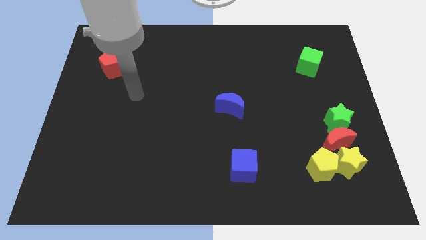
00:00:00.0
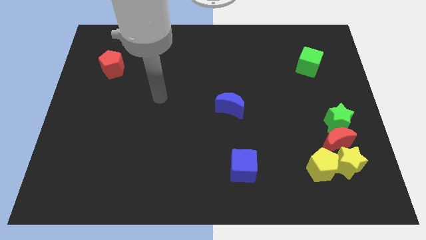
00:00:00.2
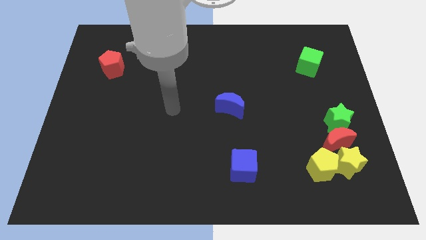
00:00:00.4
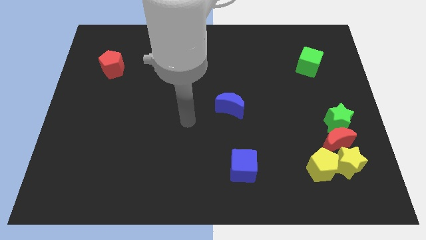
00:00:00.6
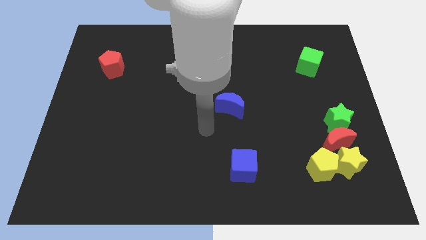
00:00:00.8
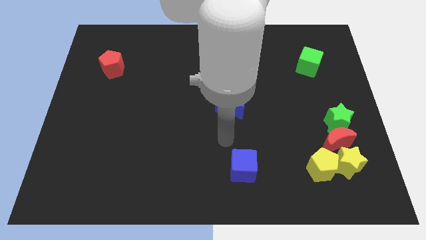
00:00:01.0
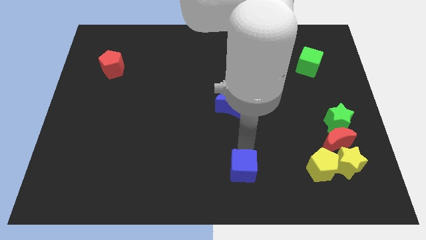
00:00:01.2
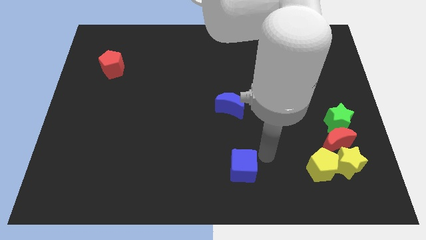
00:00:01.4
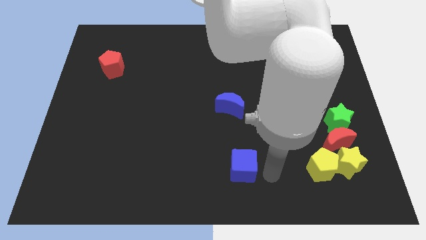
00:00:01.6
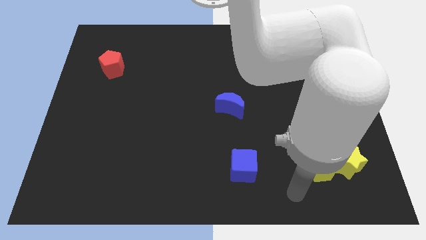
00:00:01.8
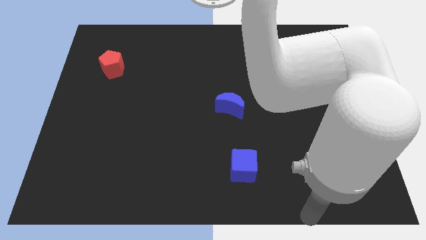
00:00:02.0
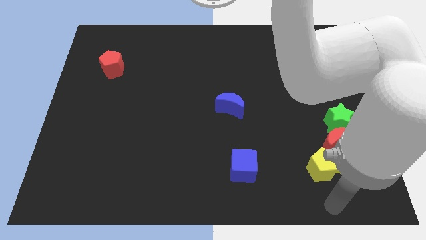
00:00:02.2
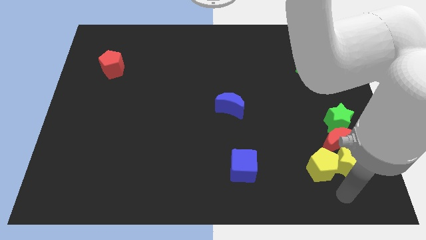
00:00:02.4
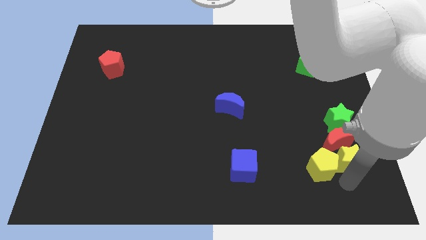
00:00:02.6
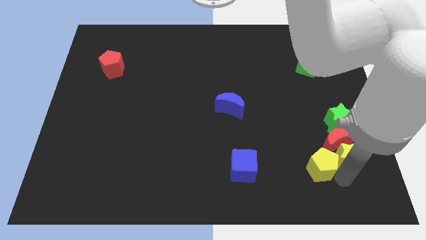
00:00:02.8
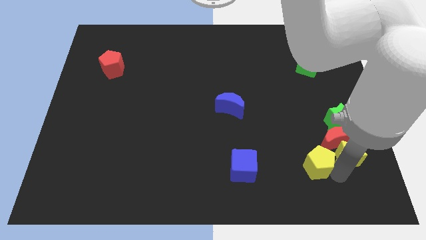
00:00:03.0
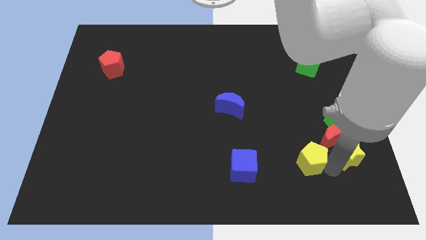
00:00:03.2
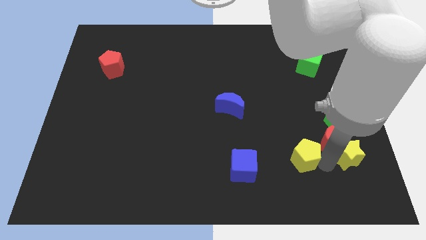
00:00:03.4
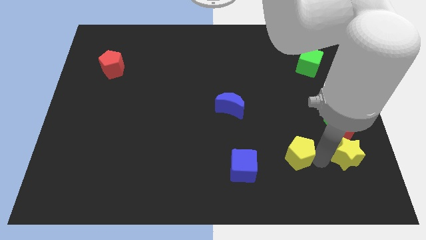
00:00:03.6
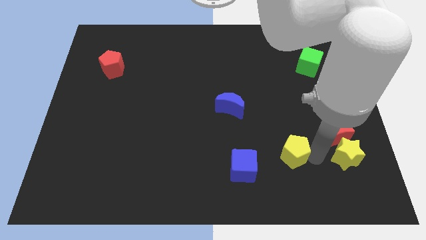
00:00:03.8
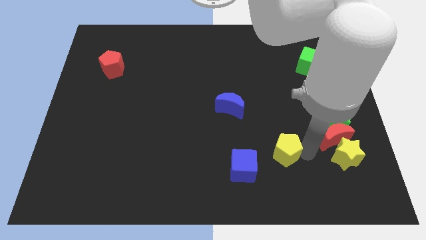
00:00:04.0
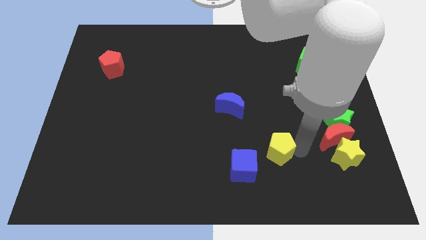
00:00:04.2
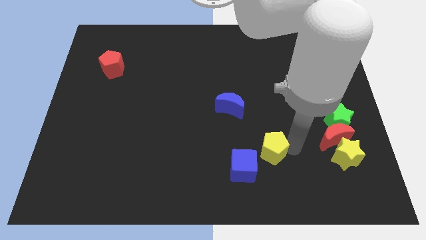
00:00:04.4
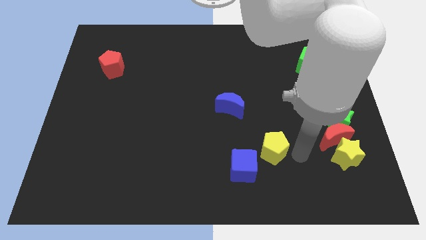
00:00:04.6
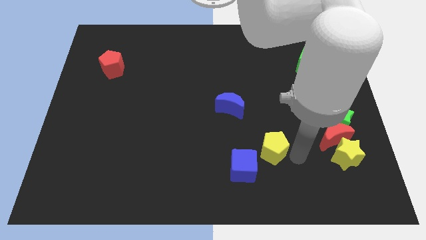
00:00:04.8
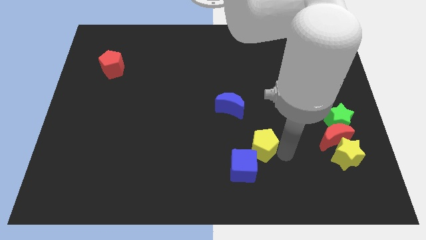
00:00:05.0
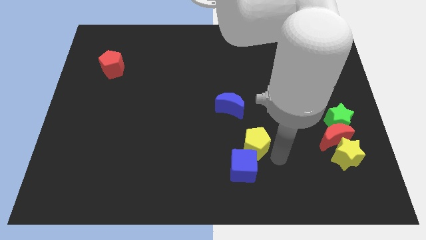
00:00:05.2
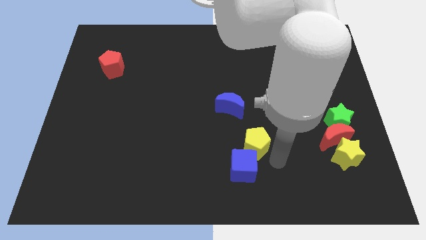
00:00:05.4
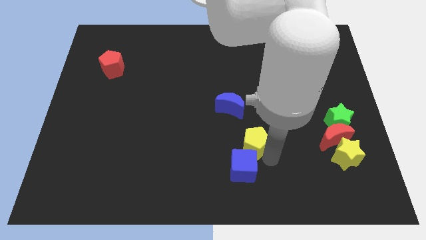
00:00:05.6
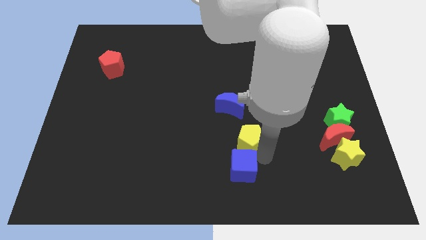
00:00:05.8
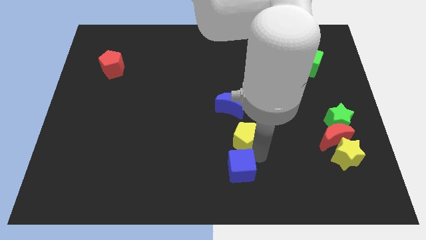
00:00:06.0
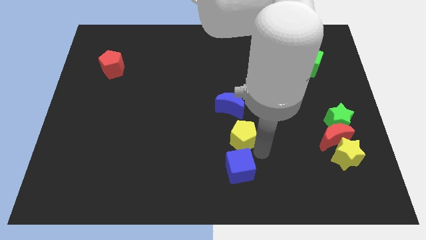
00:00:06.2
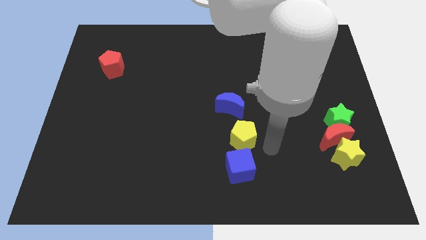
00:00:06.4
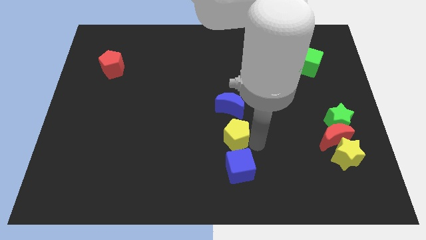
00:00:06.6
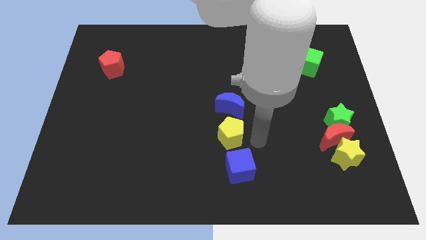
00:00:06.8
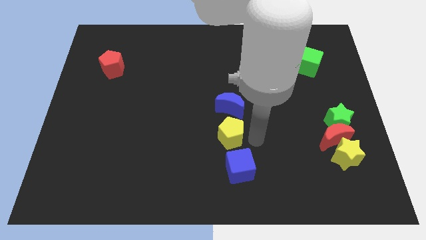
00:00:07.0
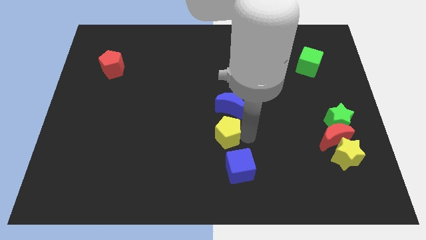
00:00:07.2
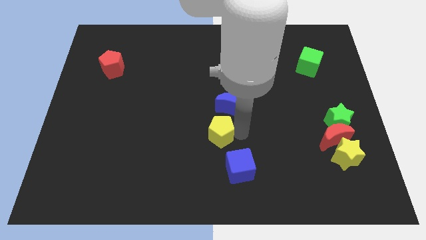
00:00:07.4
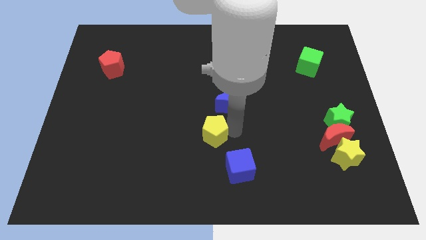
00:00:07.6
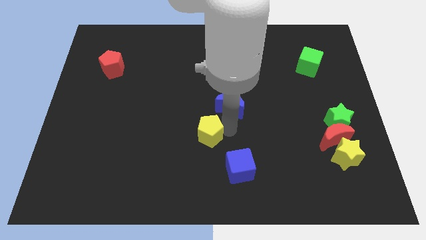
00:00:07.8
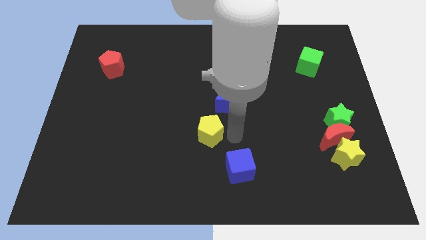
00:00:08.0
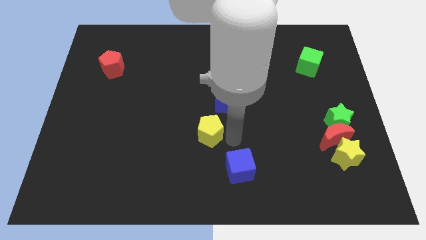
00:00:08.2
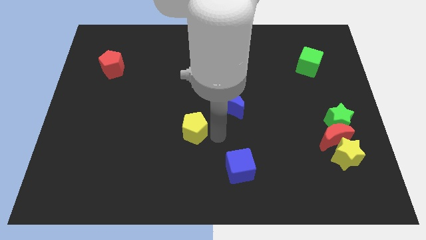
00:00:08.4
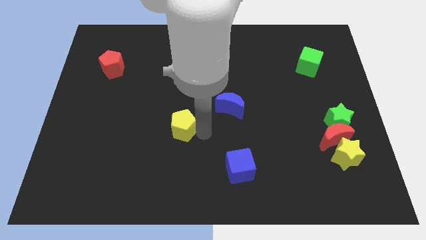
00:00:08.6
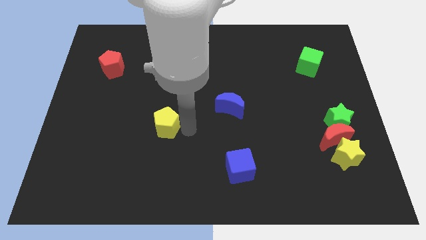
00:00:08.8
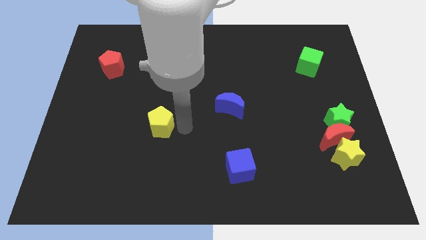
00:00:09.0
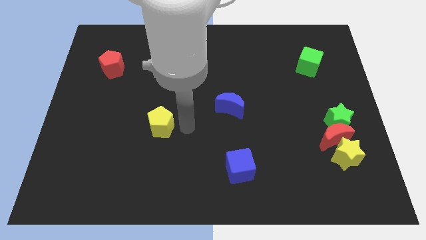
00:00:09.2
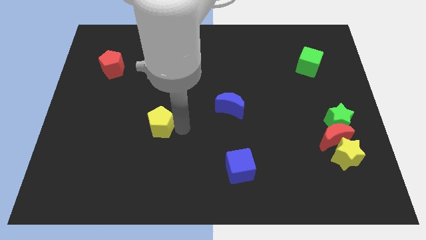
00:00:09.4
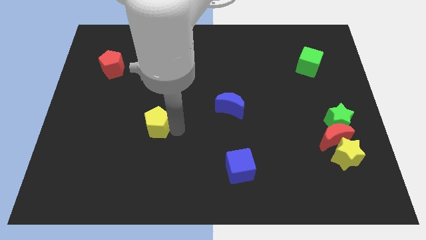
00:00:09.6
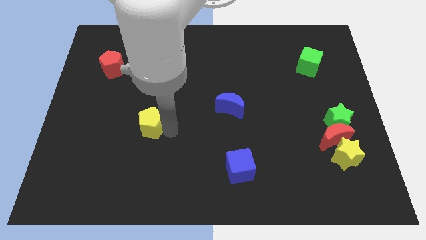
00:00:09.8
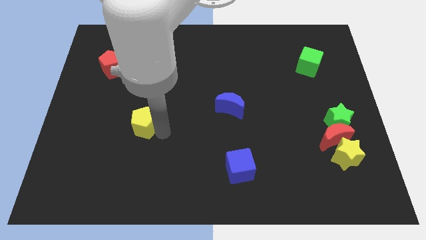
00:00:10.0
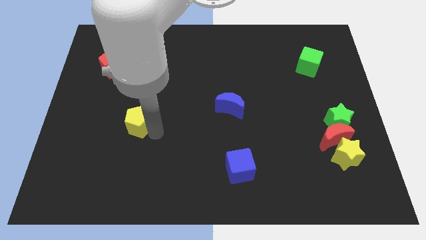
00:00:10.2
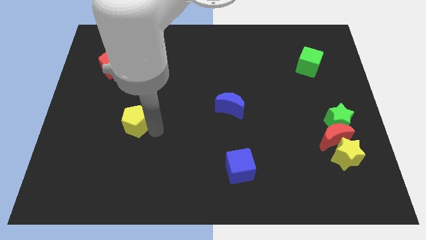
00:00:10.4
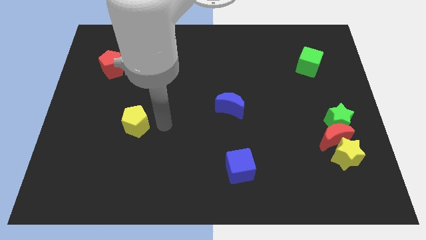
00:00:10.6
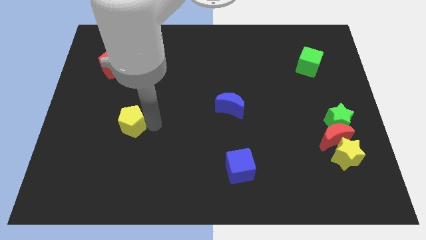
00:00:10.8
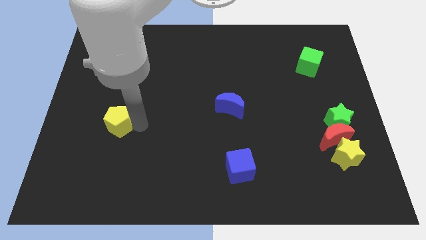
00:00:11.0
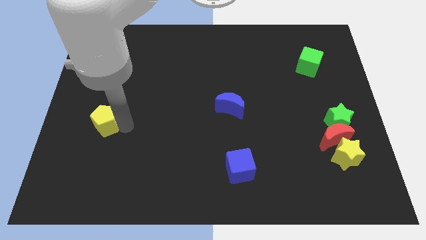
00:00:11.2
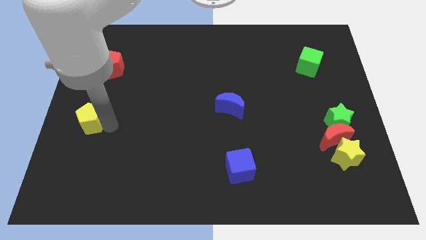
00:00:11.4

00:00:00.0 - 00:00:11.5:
push the yellow pentagon to the left side of the board

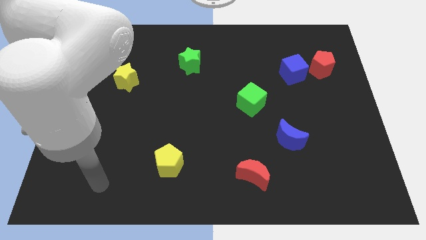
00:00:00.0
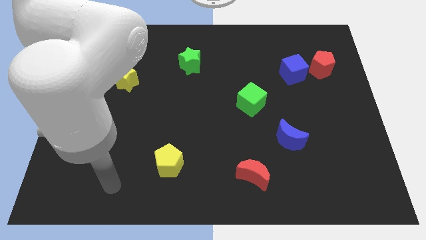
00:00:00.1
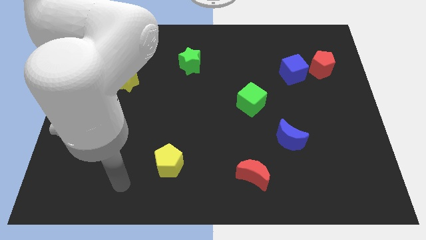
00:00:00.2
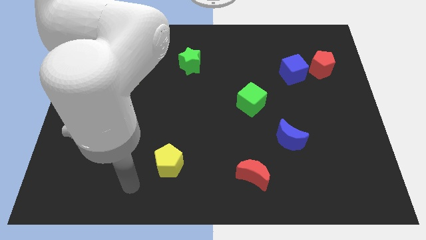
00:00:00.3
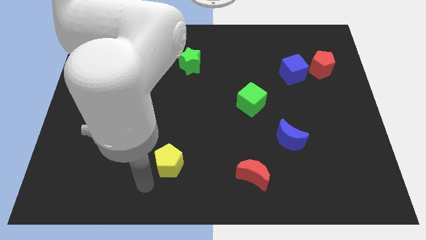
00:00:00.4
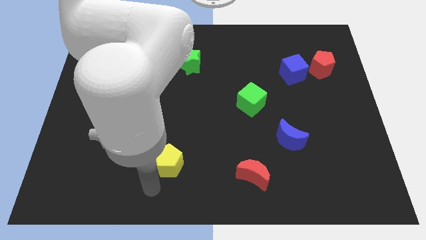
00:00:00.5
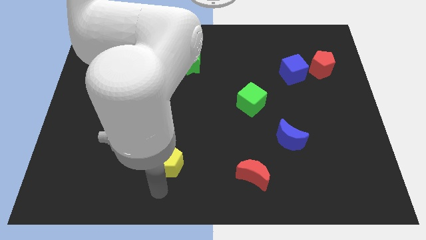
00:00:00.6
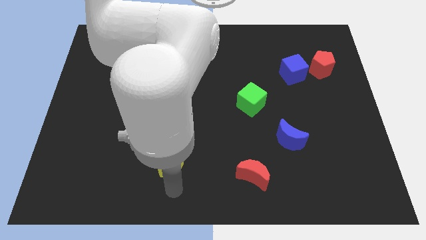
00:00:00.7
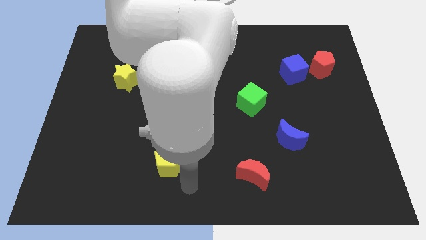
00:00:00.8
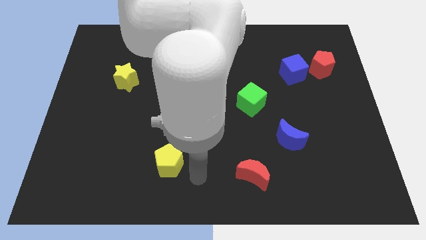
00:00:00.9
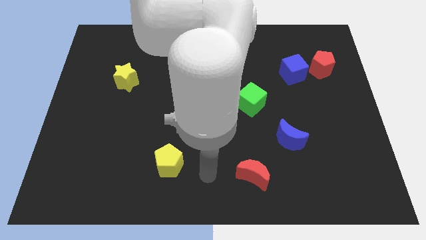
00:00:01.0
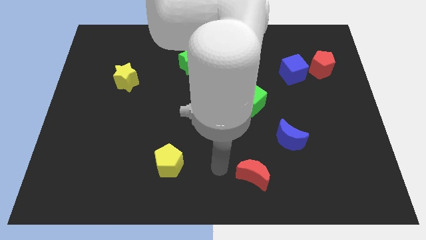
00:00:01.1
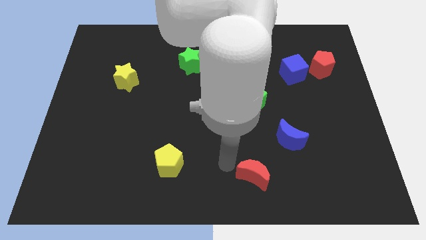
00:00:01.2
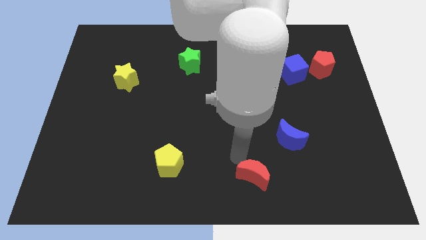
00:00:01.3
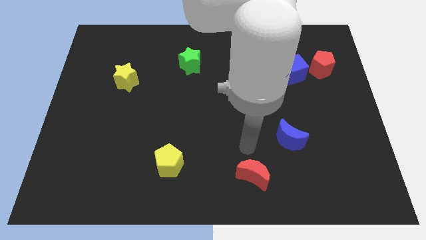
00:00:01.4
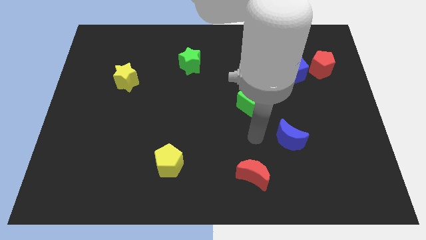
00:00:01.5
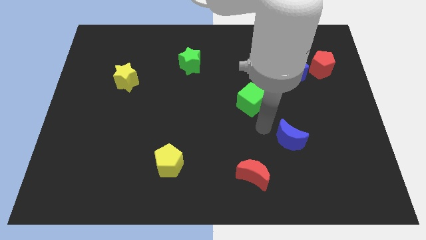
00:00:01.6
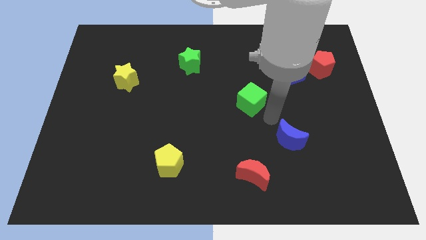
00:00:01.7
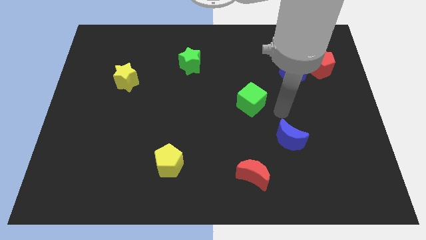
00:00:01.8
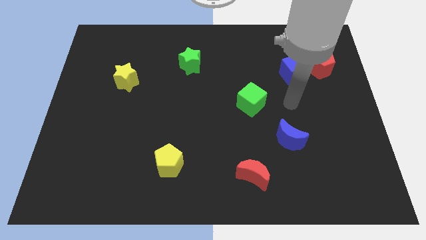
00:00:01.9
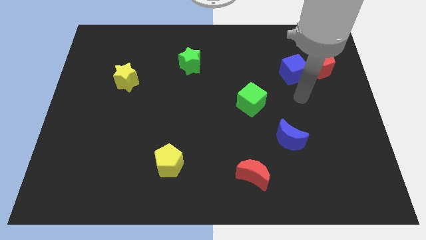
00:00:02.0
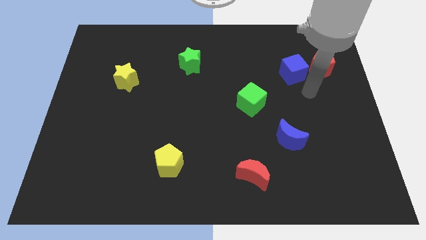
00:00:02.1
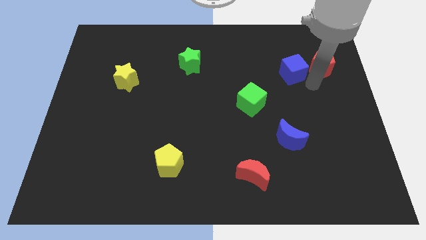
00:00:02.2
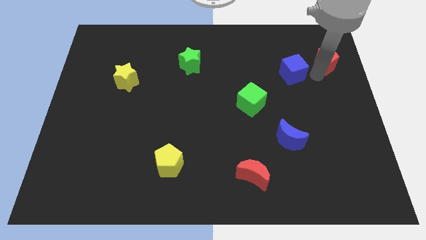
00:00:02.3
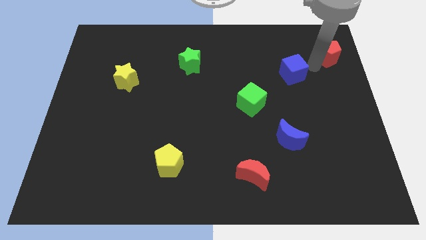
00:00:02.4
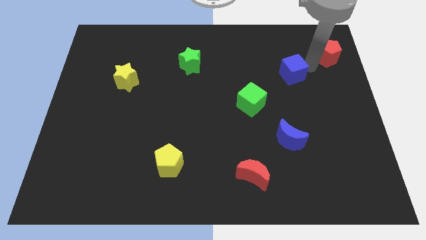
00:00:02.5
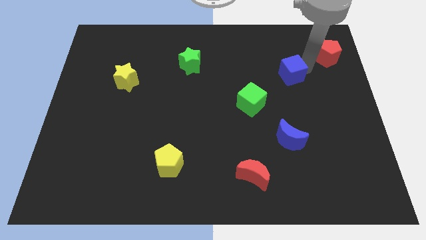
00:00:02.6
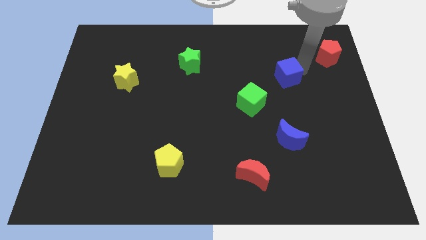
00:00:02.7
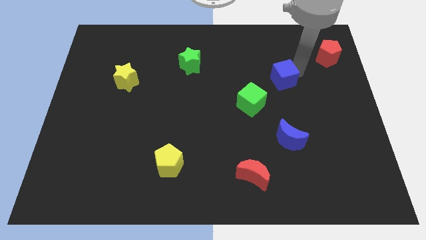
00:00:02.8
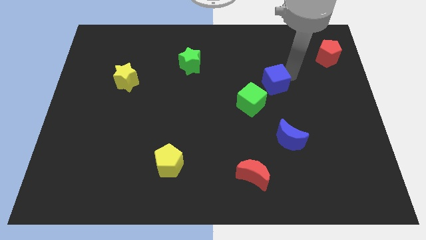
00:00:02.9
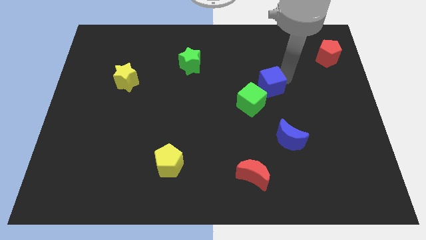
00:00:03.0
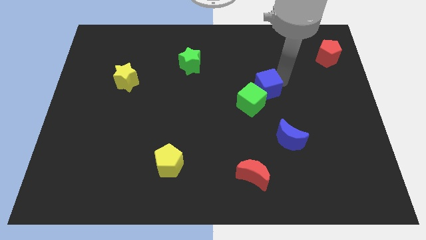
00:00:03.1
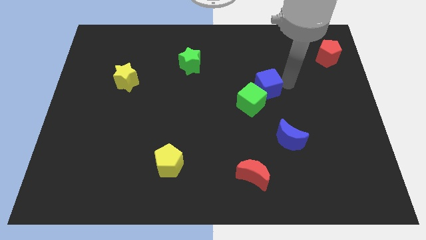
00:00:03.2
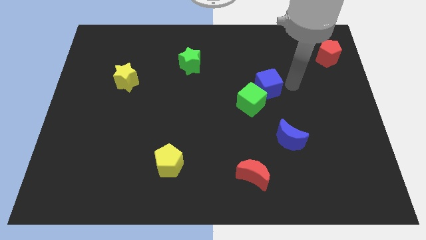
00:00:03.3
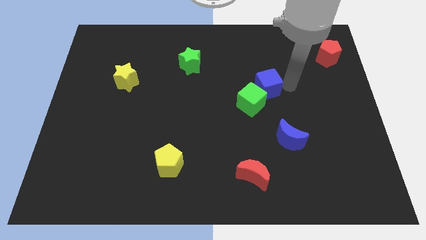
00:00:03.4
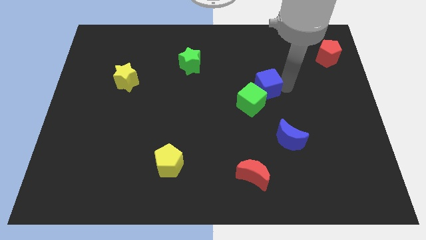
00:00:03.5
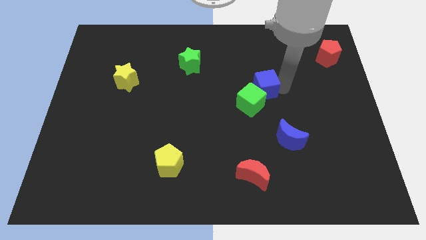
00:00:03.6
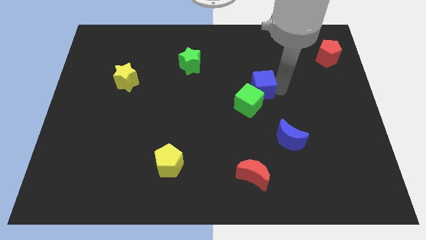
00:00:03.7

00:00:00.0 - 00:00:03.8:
move the blue cube to the center
